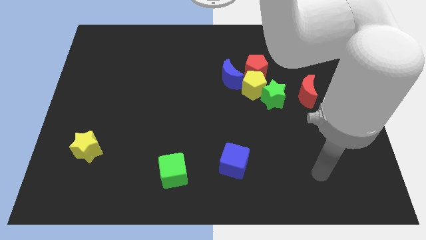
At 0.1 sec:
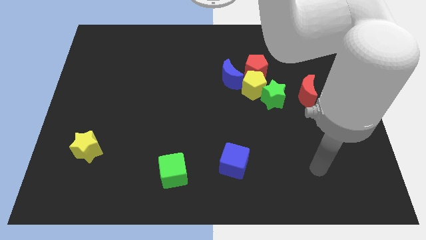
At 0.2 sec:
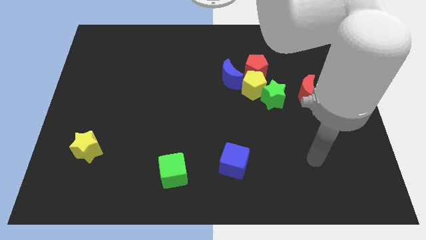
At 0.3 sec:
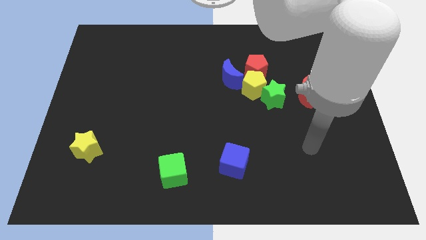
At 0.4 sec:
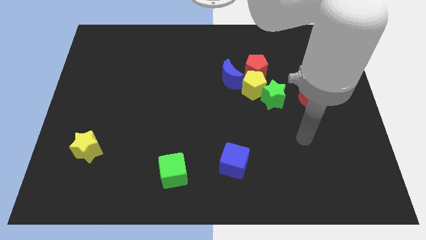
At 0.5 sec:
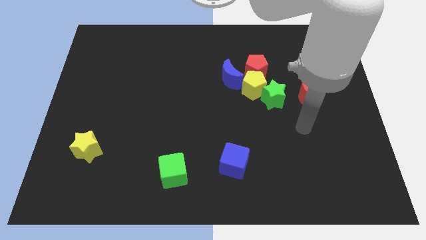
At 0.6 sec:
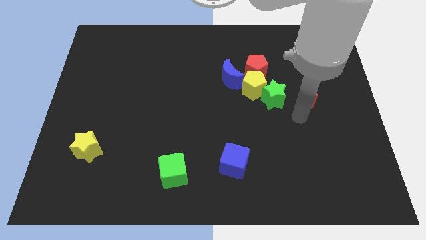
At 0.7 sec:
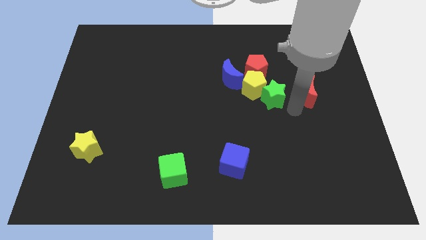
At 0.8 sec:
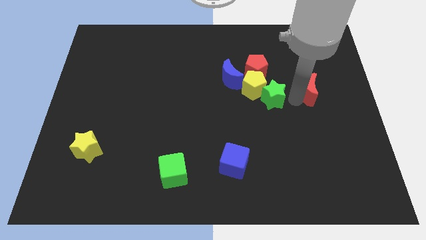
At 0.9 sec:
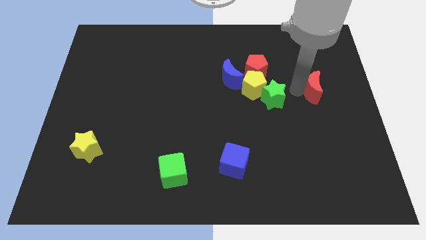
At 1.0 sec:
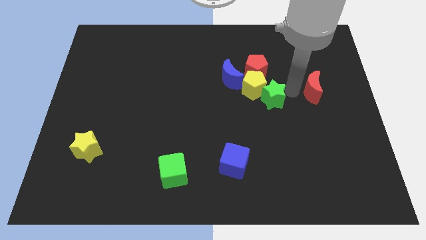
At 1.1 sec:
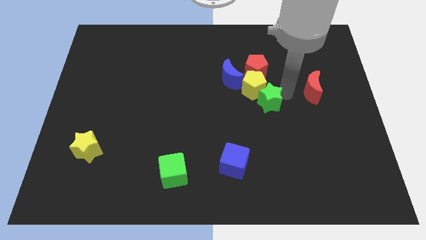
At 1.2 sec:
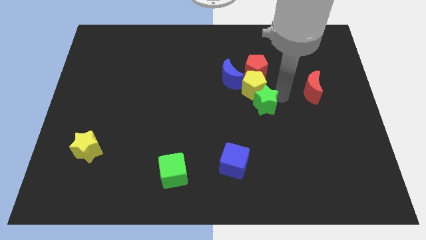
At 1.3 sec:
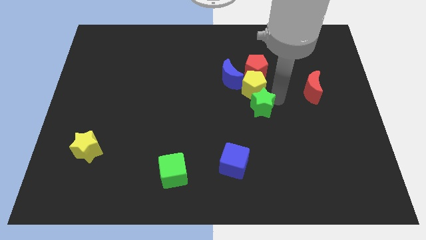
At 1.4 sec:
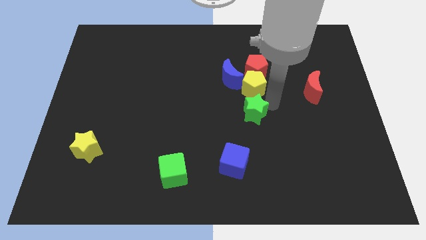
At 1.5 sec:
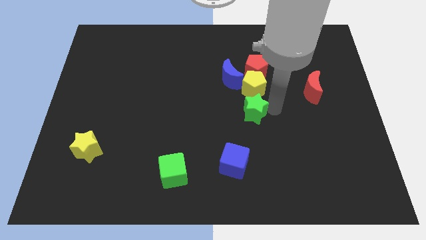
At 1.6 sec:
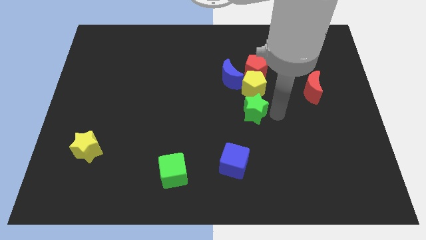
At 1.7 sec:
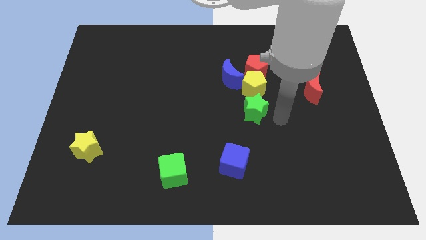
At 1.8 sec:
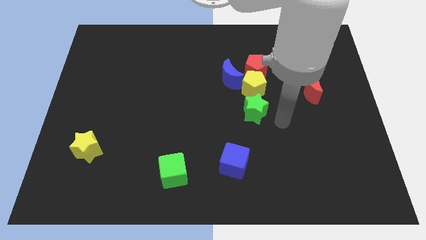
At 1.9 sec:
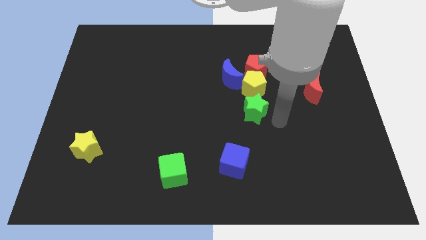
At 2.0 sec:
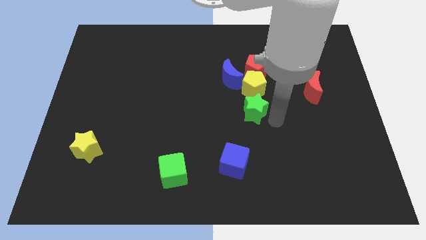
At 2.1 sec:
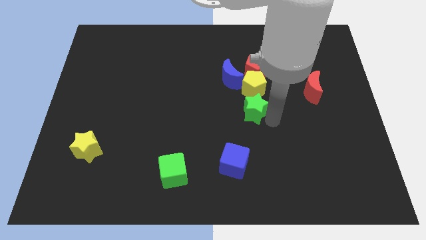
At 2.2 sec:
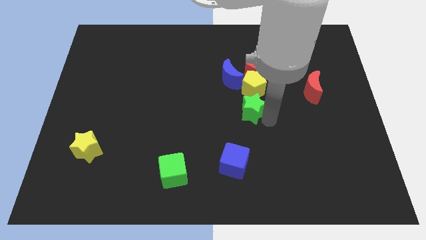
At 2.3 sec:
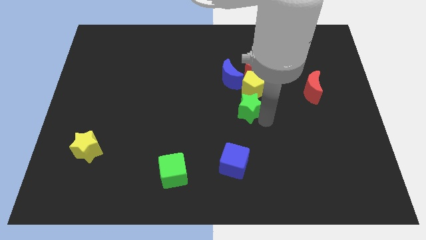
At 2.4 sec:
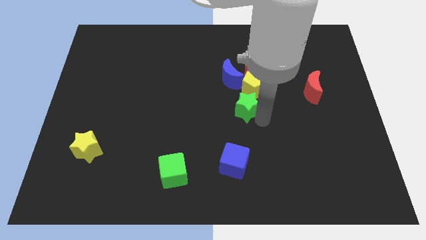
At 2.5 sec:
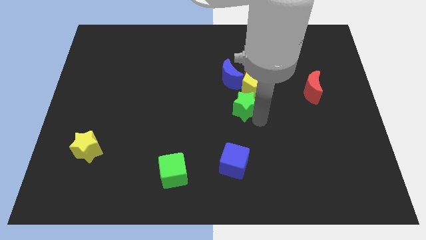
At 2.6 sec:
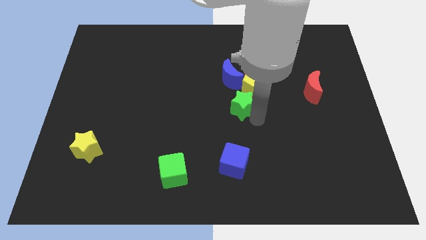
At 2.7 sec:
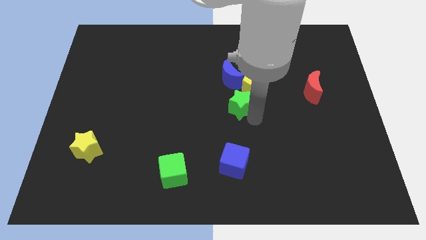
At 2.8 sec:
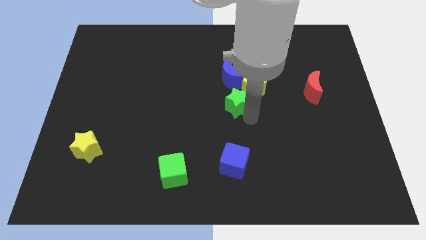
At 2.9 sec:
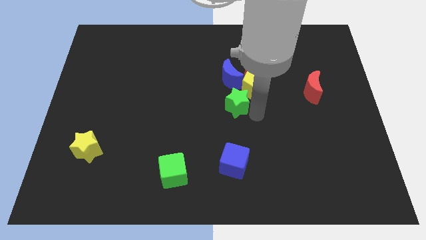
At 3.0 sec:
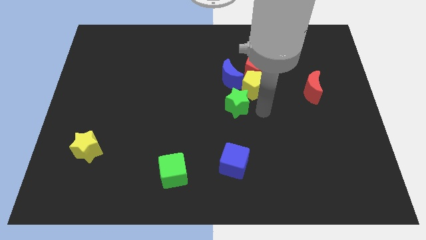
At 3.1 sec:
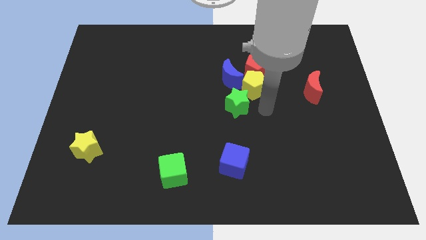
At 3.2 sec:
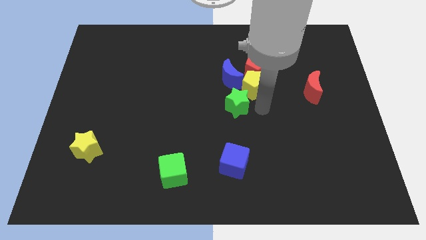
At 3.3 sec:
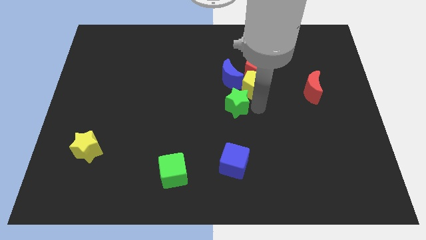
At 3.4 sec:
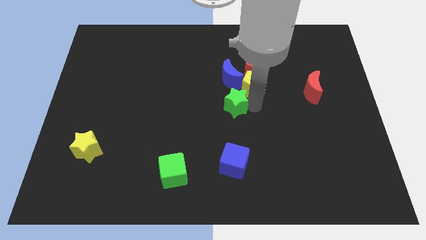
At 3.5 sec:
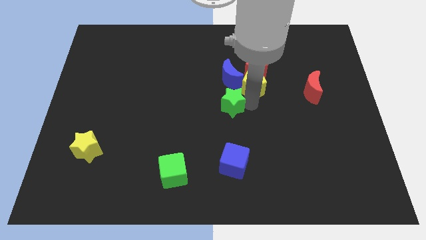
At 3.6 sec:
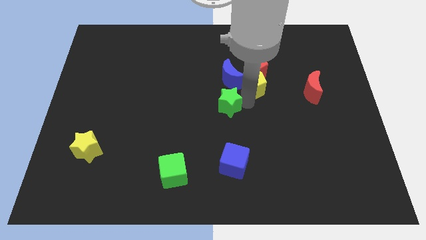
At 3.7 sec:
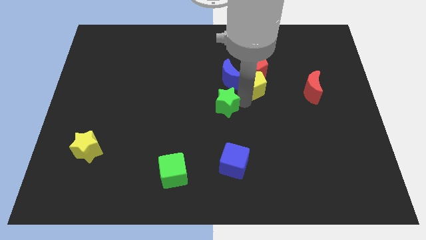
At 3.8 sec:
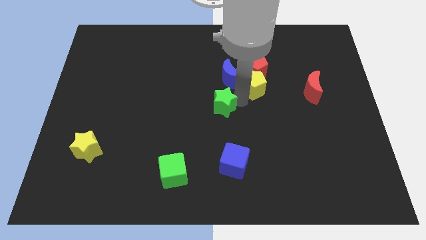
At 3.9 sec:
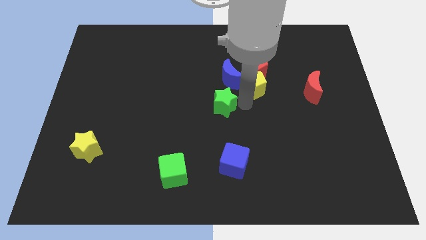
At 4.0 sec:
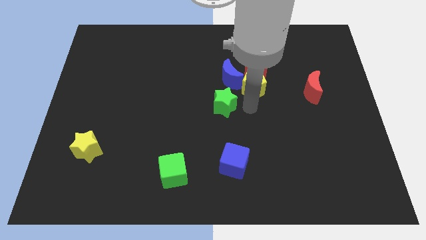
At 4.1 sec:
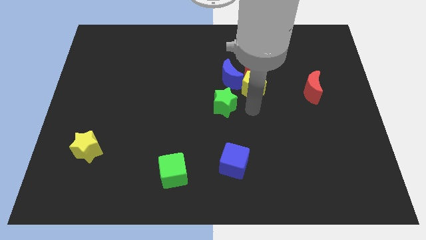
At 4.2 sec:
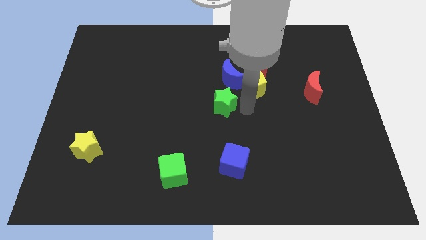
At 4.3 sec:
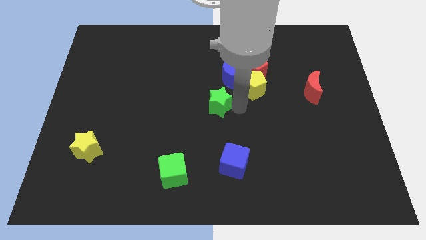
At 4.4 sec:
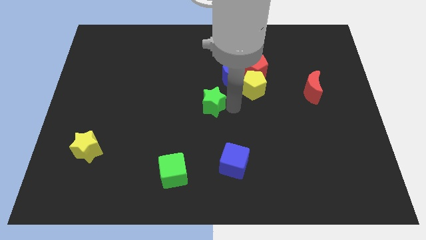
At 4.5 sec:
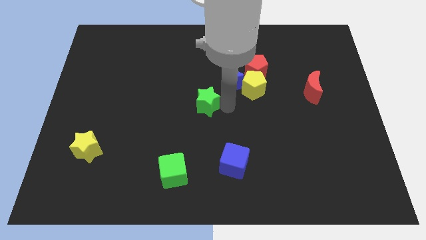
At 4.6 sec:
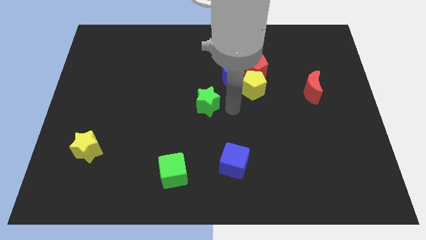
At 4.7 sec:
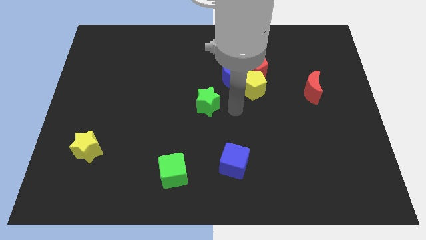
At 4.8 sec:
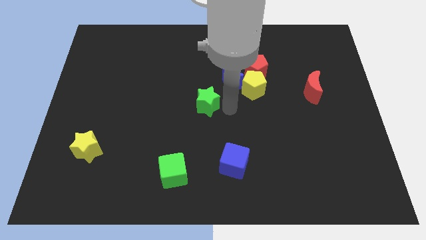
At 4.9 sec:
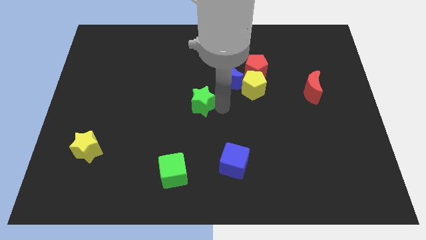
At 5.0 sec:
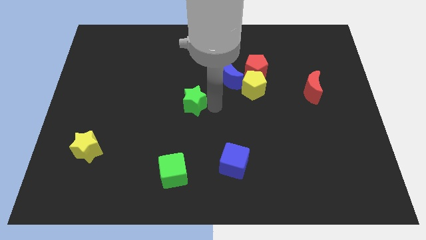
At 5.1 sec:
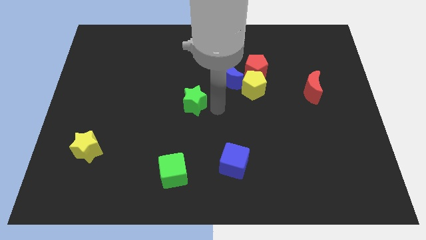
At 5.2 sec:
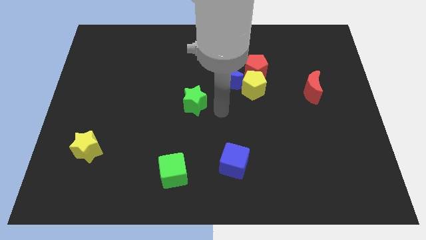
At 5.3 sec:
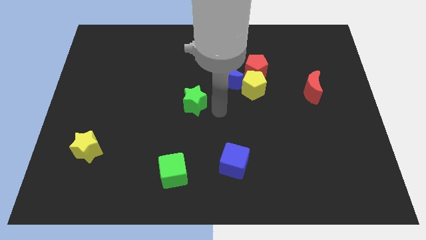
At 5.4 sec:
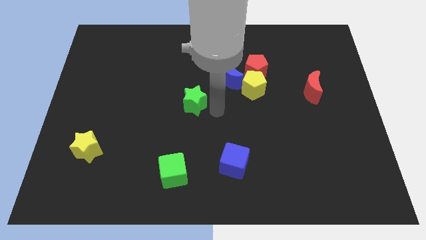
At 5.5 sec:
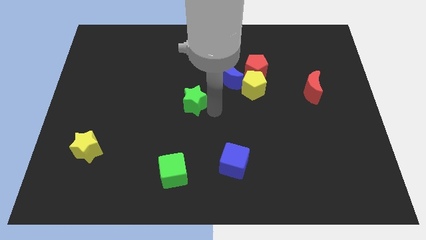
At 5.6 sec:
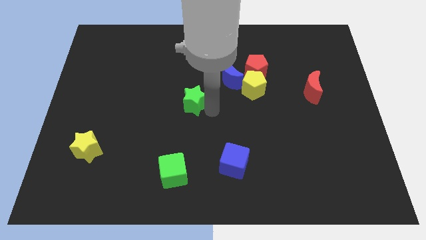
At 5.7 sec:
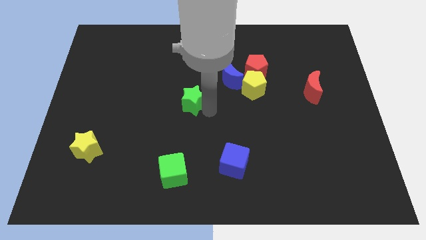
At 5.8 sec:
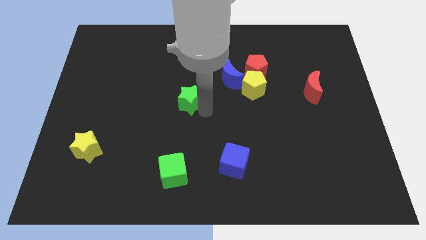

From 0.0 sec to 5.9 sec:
move the green star left

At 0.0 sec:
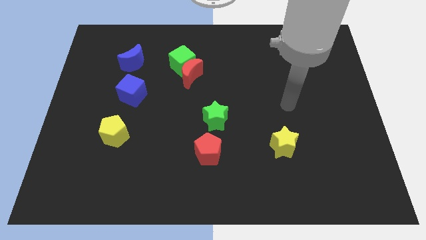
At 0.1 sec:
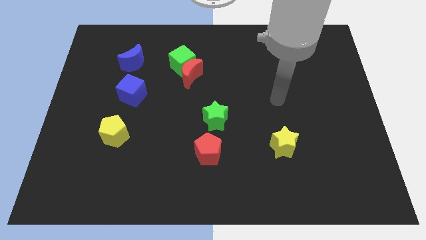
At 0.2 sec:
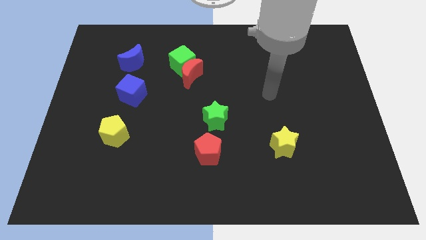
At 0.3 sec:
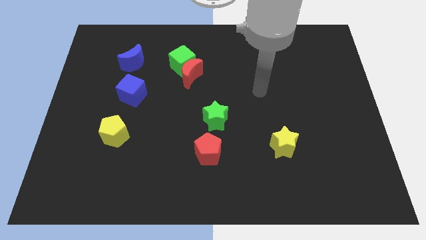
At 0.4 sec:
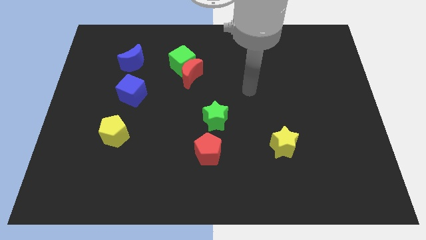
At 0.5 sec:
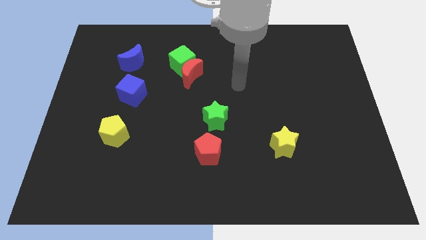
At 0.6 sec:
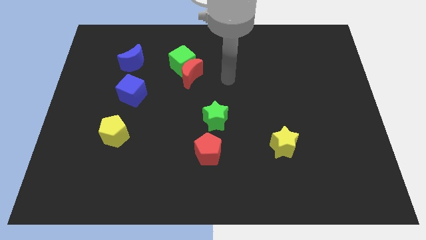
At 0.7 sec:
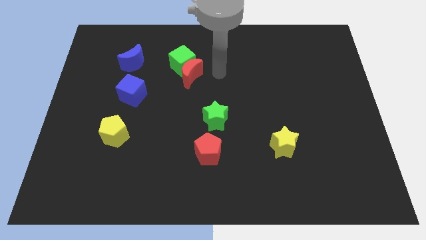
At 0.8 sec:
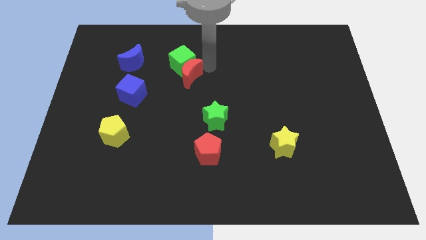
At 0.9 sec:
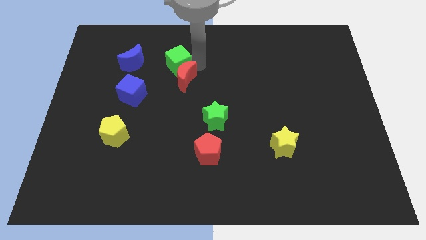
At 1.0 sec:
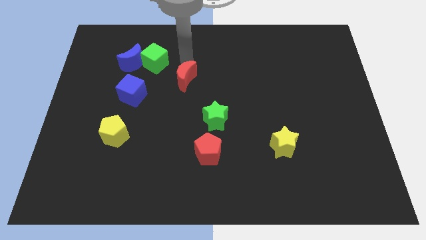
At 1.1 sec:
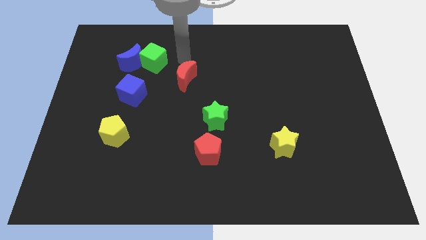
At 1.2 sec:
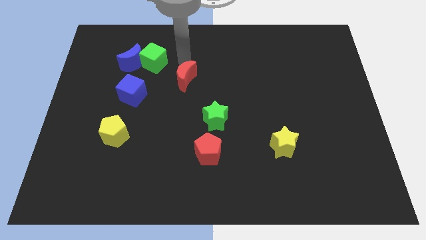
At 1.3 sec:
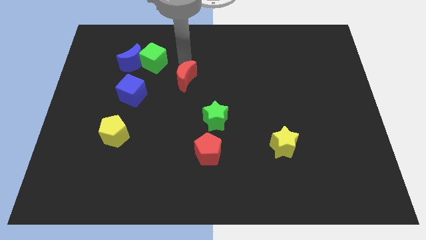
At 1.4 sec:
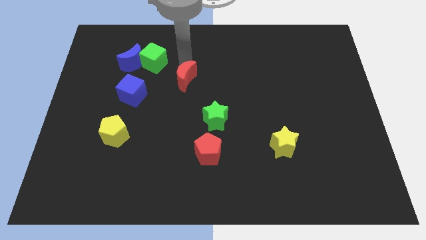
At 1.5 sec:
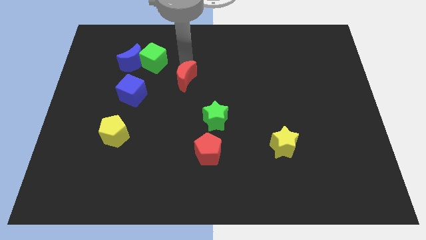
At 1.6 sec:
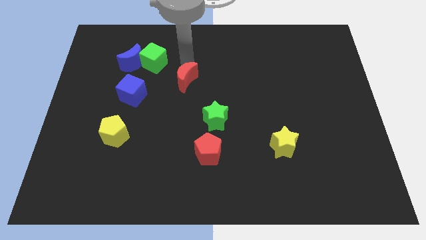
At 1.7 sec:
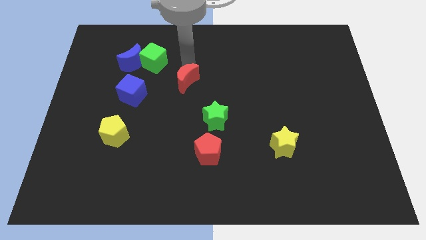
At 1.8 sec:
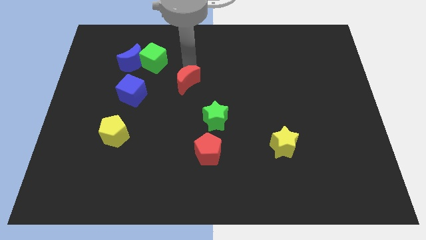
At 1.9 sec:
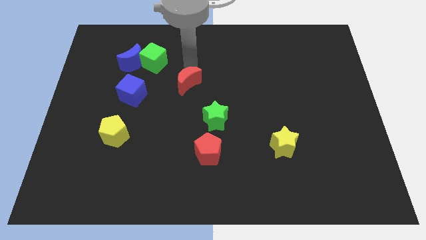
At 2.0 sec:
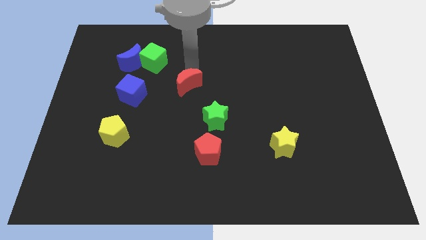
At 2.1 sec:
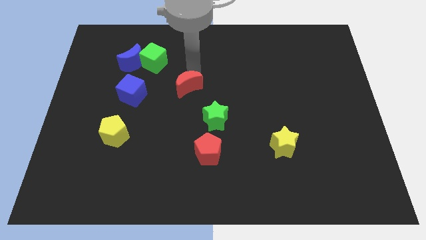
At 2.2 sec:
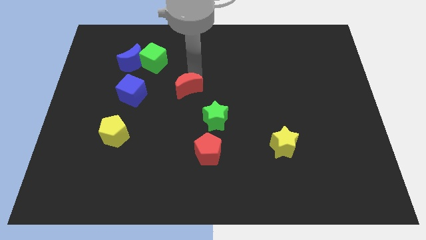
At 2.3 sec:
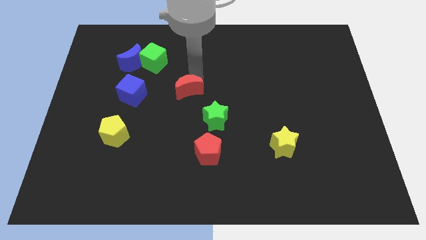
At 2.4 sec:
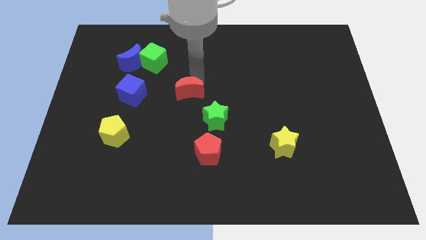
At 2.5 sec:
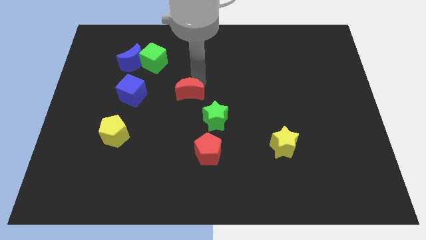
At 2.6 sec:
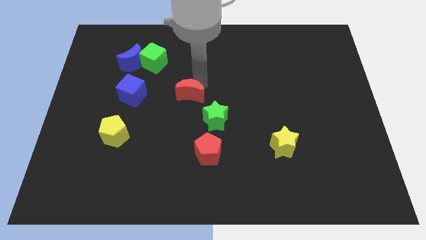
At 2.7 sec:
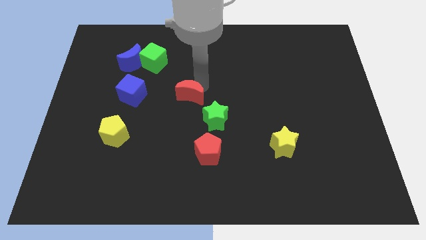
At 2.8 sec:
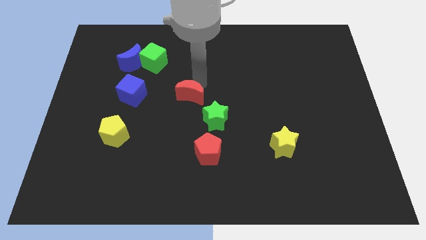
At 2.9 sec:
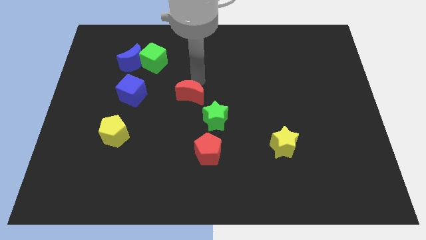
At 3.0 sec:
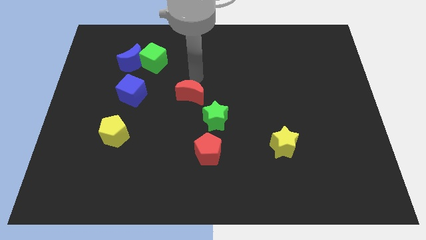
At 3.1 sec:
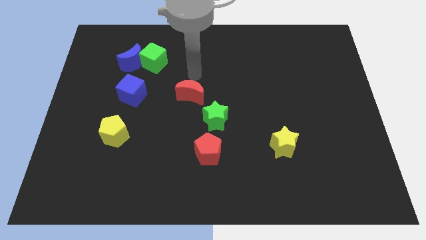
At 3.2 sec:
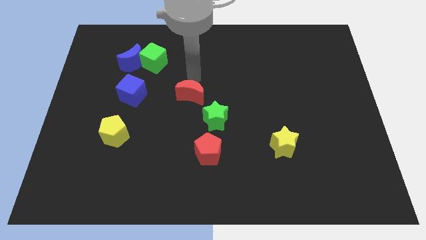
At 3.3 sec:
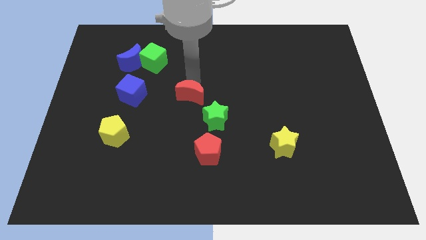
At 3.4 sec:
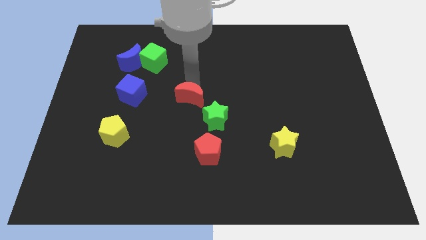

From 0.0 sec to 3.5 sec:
slide the red moon down a little bit
